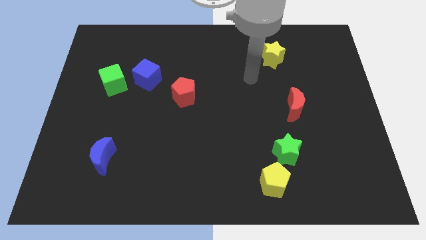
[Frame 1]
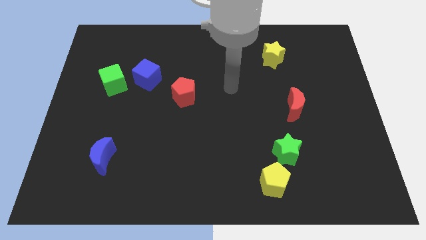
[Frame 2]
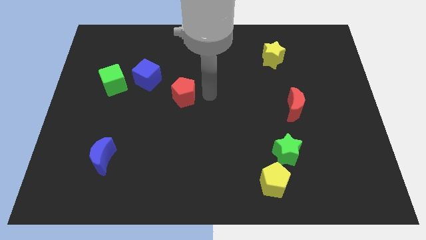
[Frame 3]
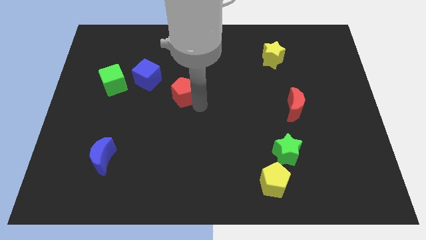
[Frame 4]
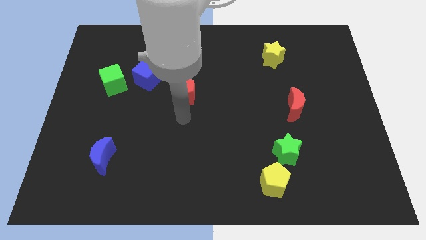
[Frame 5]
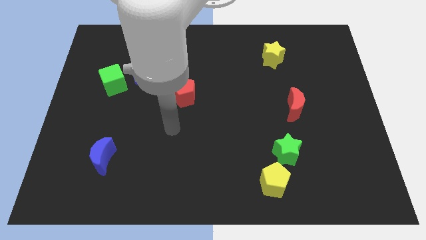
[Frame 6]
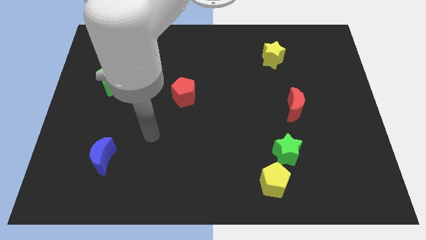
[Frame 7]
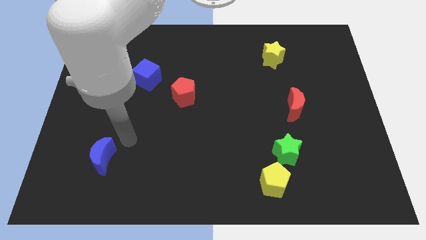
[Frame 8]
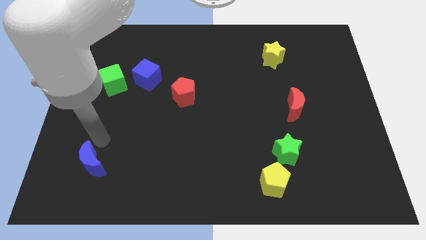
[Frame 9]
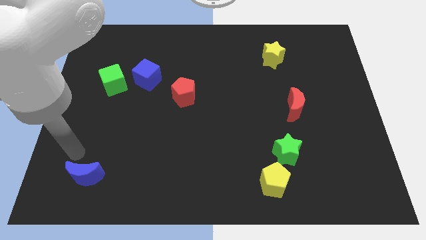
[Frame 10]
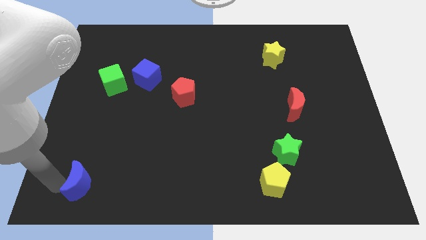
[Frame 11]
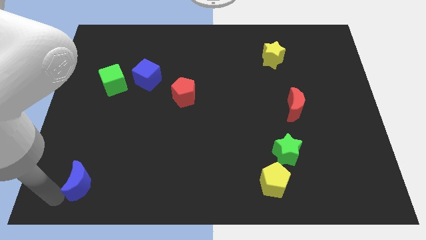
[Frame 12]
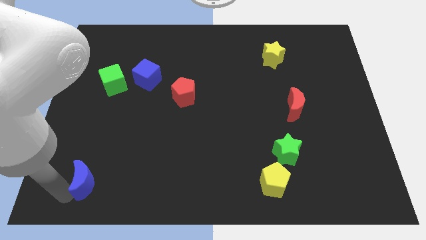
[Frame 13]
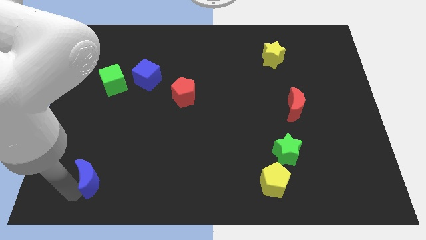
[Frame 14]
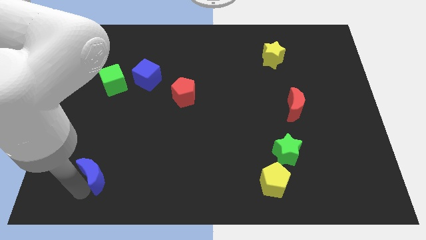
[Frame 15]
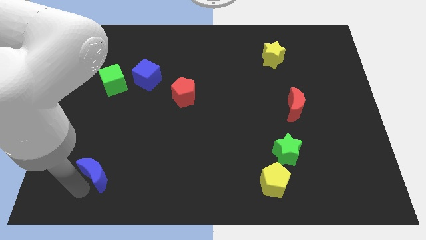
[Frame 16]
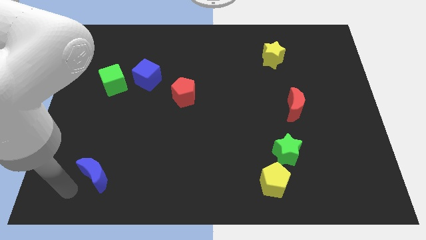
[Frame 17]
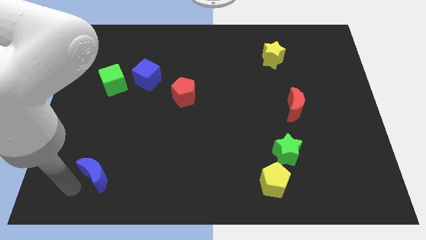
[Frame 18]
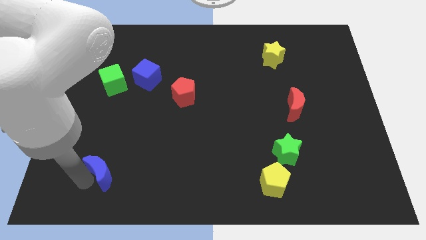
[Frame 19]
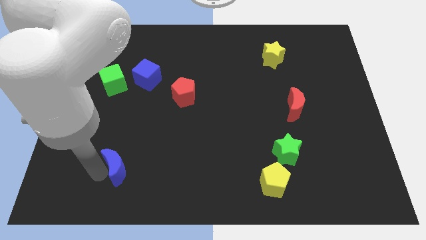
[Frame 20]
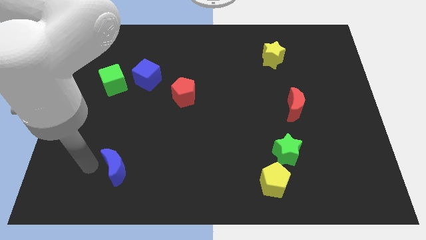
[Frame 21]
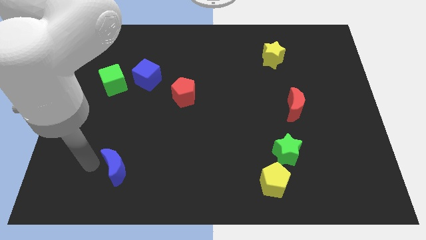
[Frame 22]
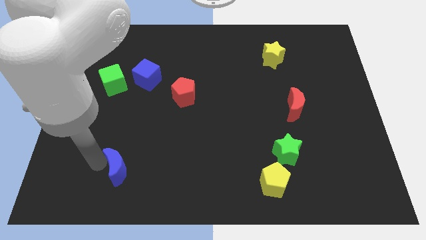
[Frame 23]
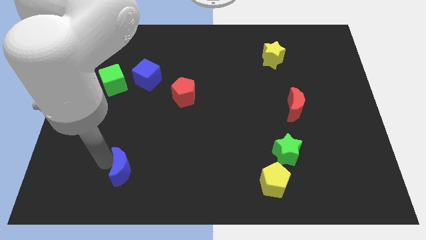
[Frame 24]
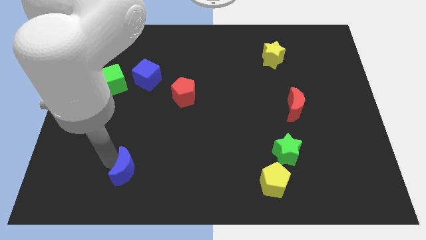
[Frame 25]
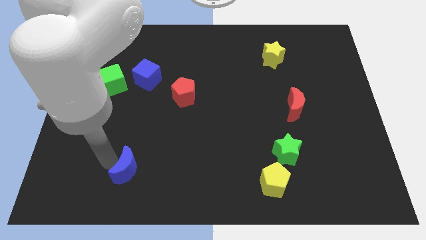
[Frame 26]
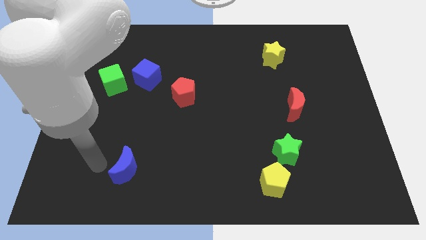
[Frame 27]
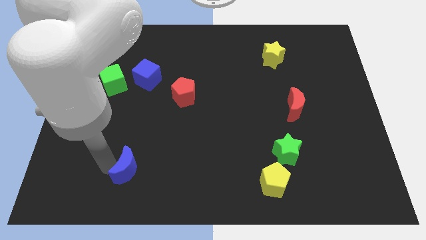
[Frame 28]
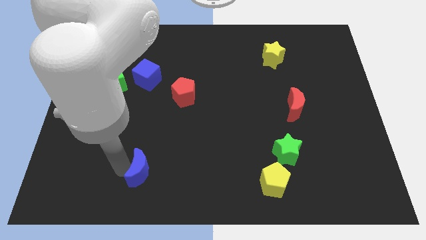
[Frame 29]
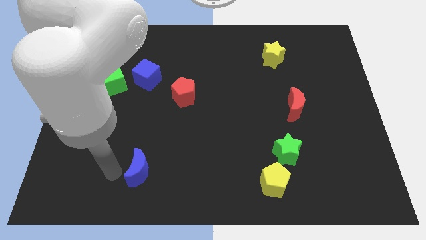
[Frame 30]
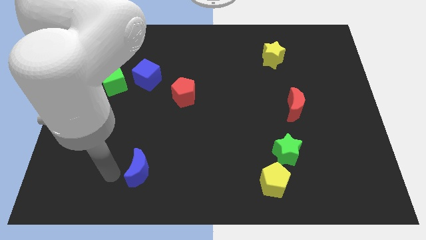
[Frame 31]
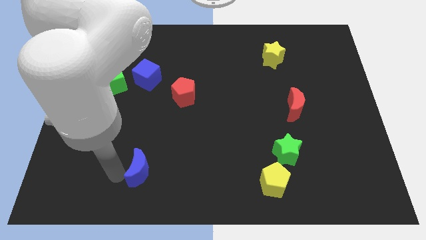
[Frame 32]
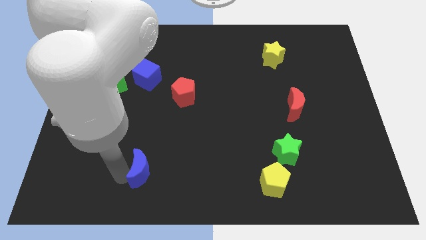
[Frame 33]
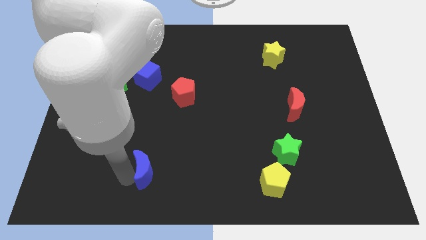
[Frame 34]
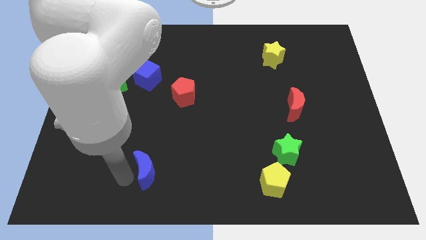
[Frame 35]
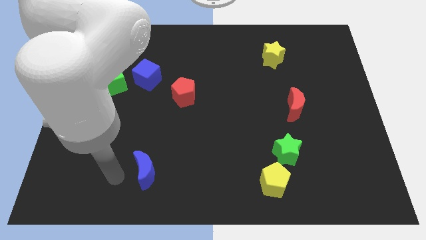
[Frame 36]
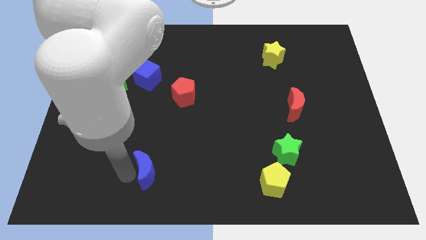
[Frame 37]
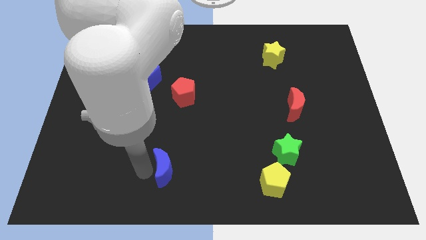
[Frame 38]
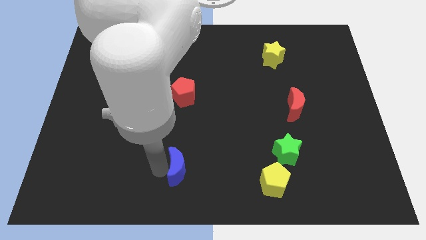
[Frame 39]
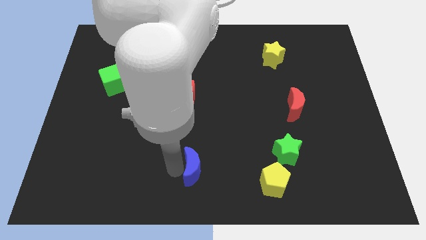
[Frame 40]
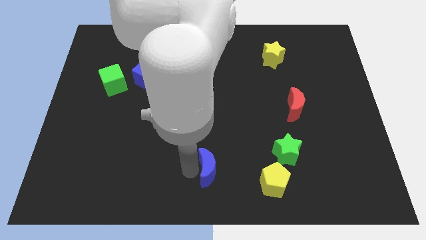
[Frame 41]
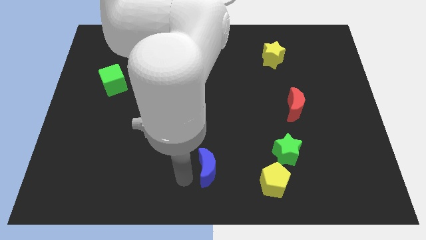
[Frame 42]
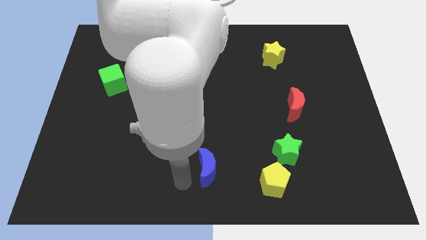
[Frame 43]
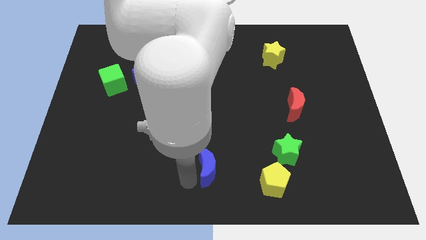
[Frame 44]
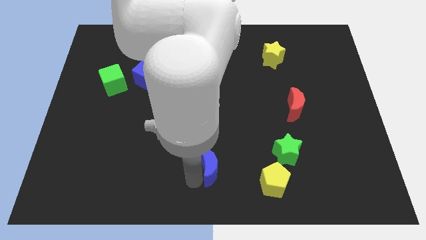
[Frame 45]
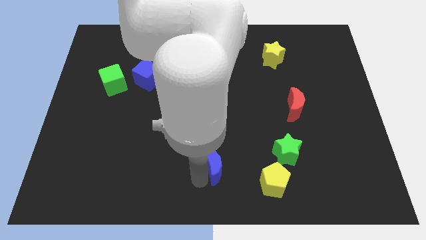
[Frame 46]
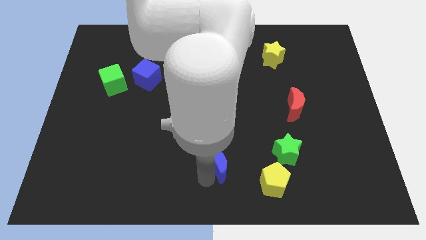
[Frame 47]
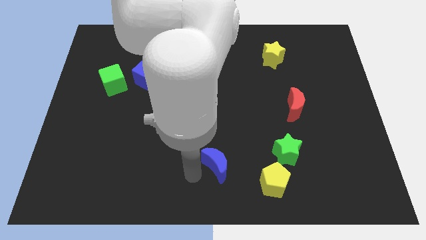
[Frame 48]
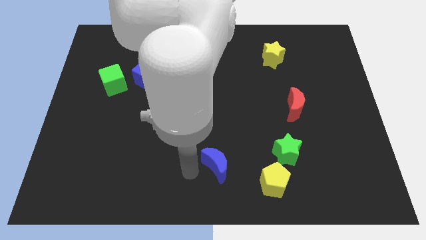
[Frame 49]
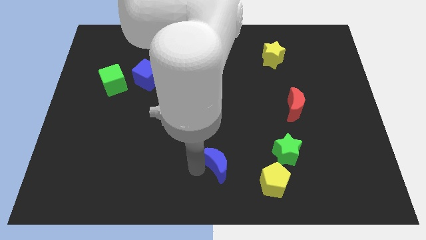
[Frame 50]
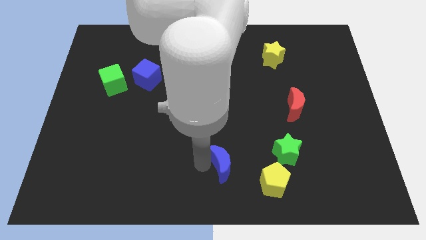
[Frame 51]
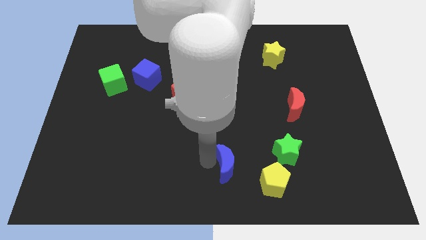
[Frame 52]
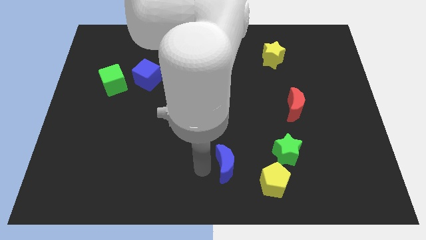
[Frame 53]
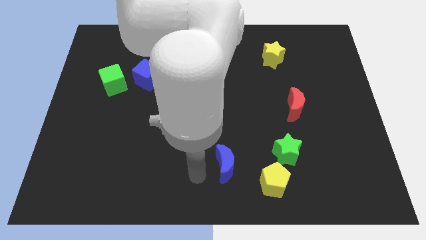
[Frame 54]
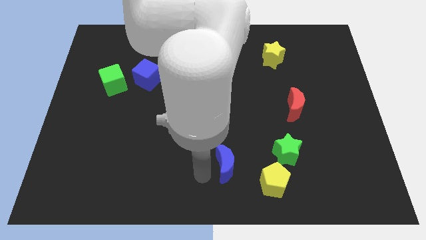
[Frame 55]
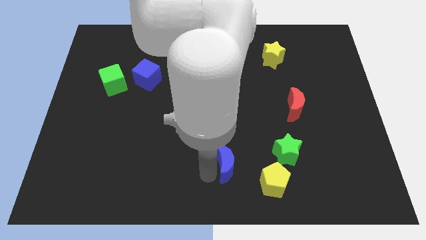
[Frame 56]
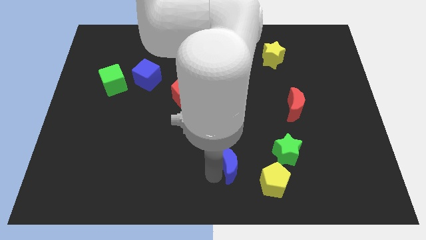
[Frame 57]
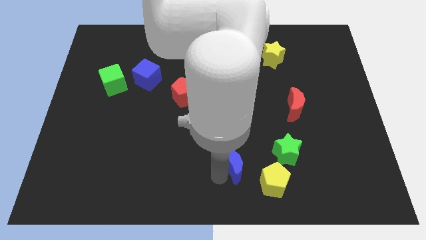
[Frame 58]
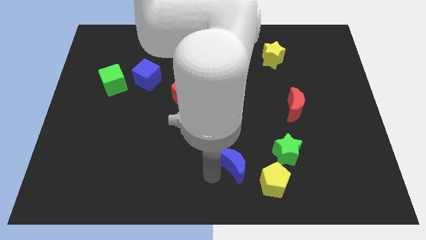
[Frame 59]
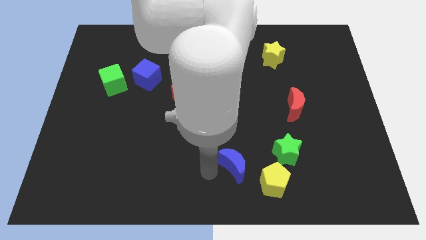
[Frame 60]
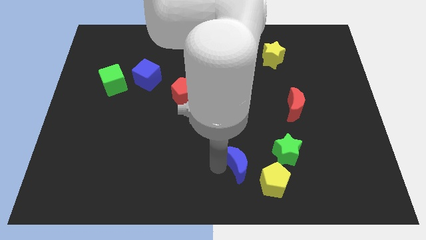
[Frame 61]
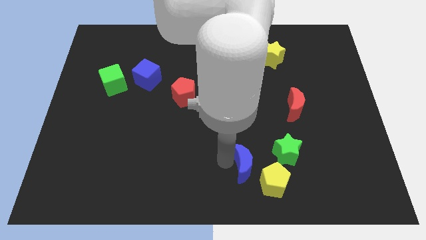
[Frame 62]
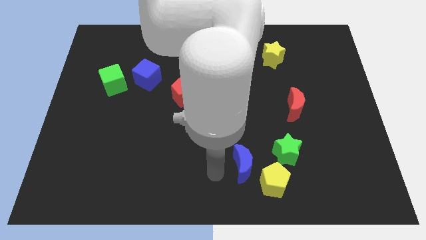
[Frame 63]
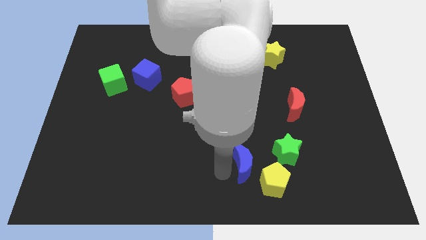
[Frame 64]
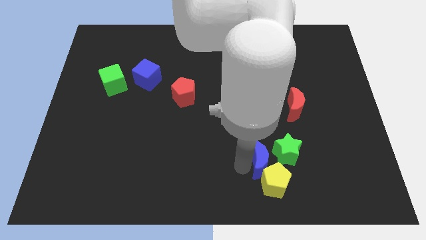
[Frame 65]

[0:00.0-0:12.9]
put the blue moon to the green star
